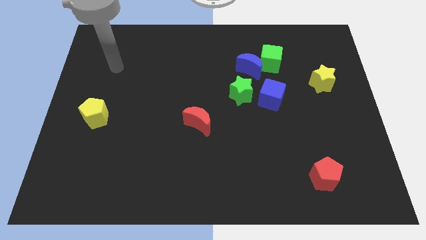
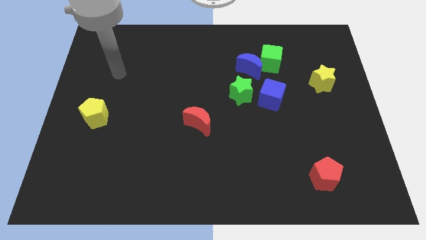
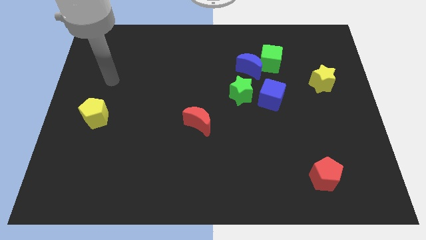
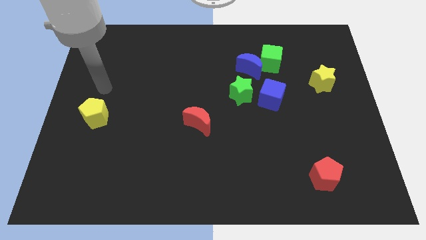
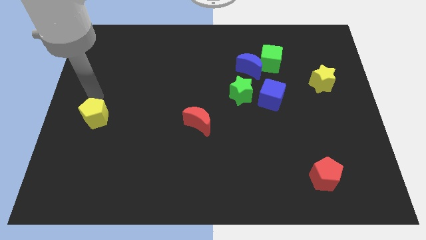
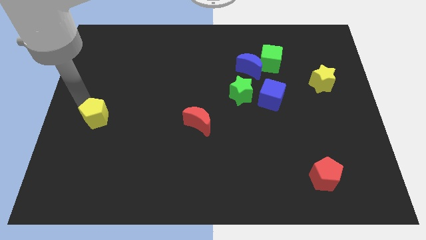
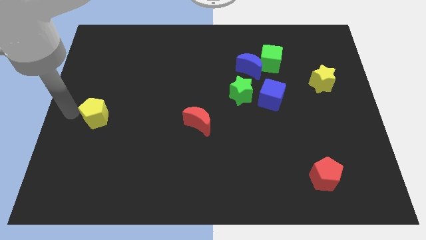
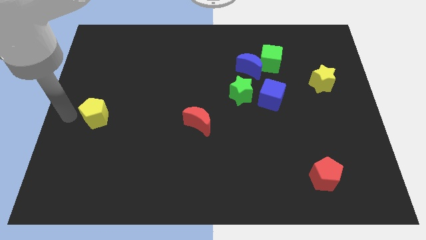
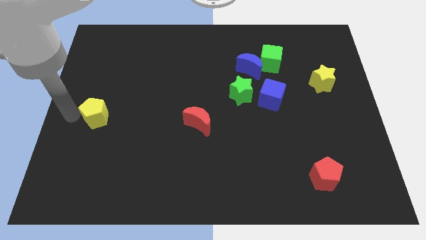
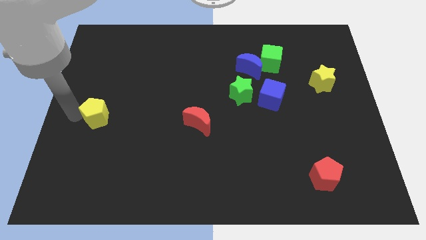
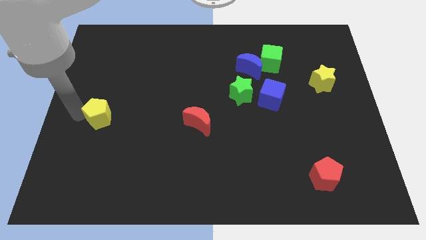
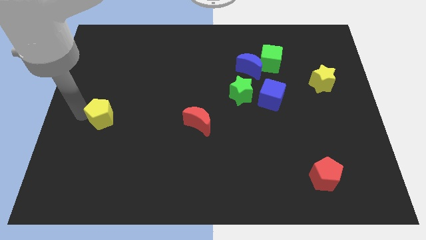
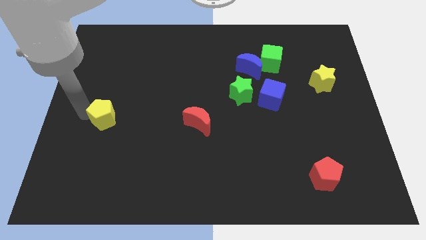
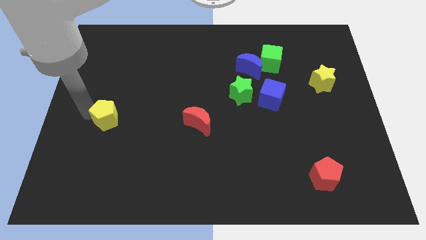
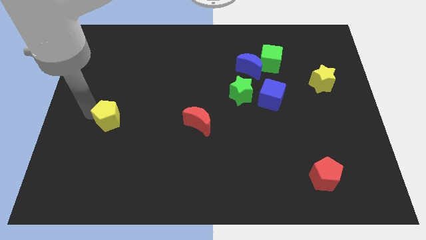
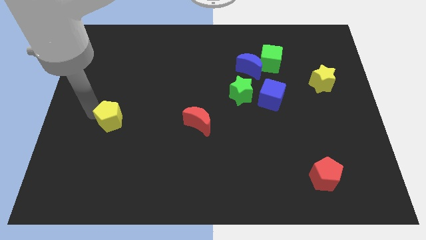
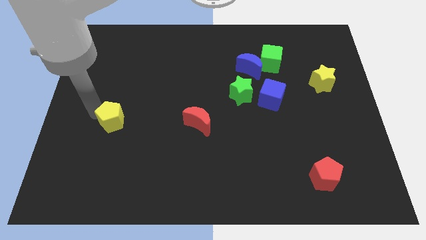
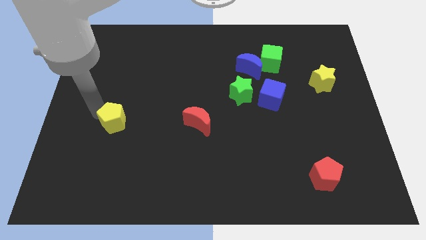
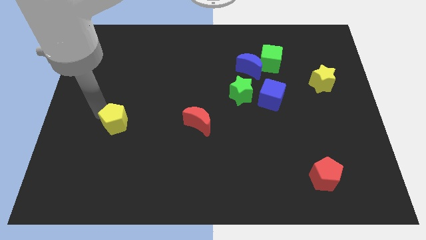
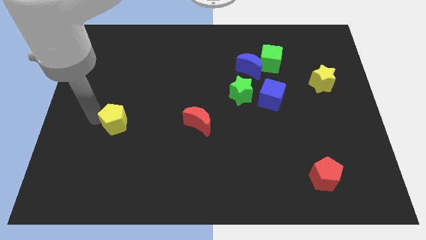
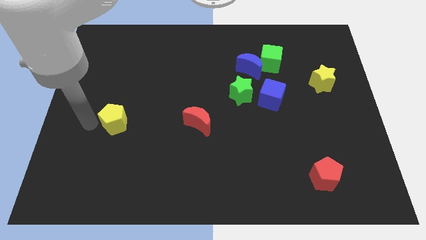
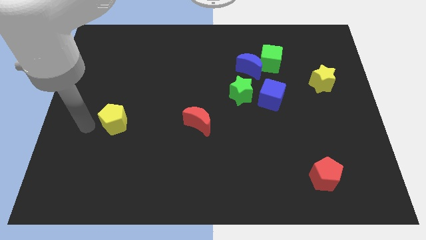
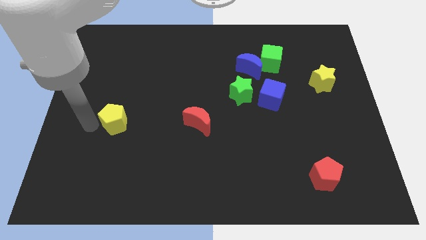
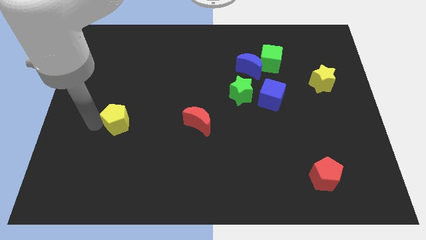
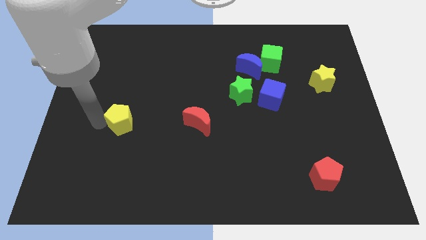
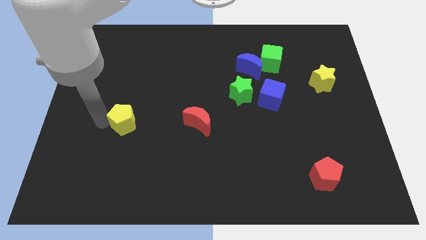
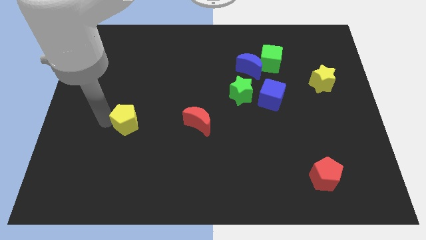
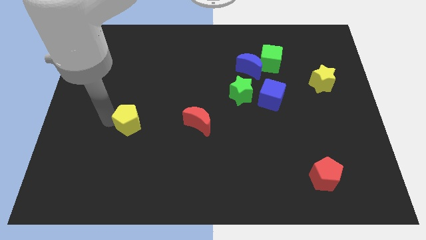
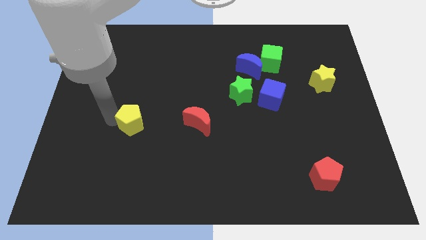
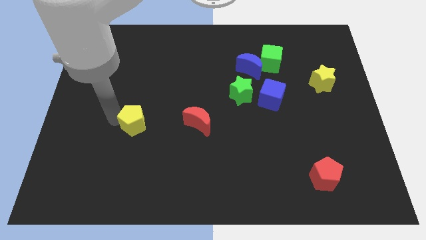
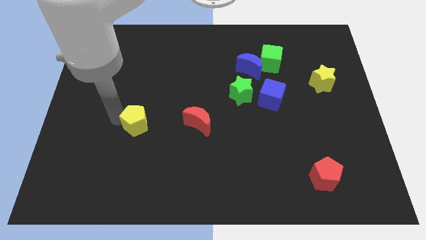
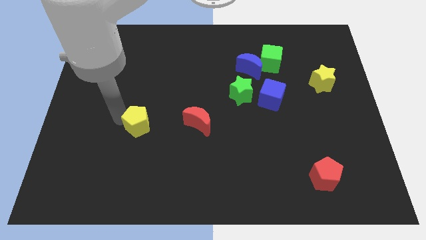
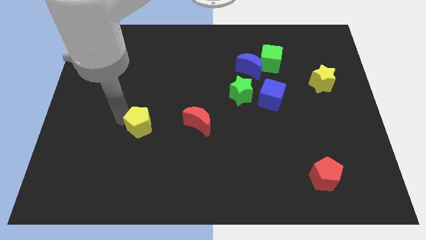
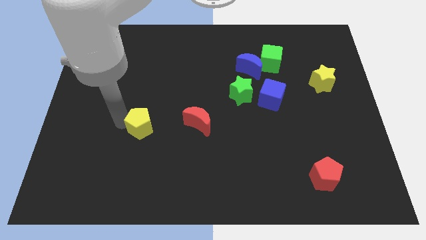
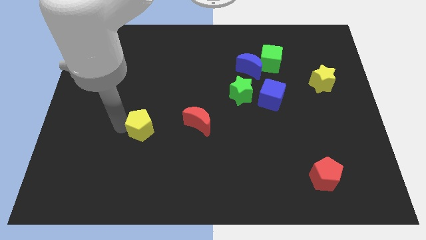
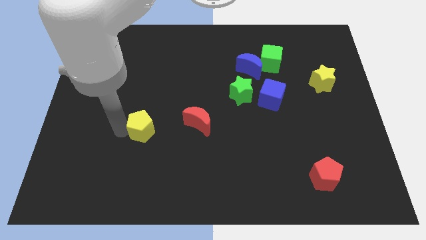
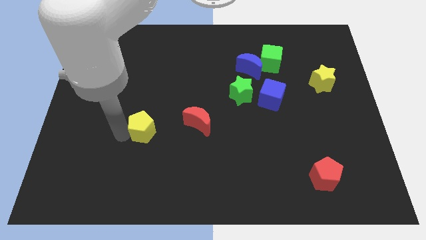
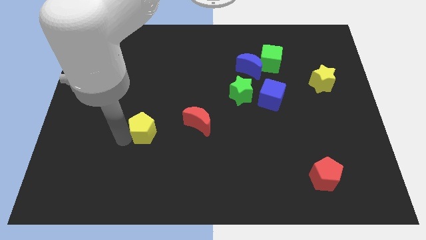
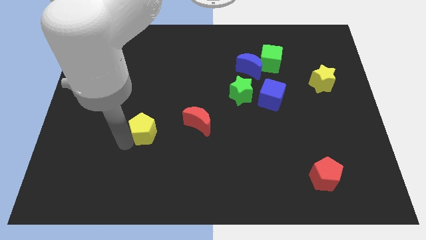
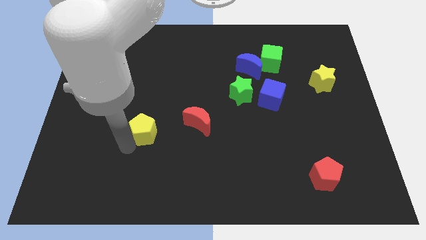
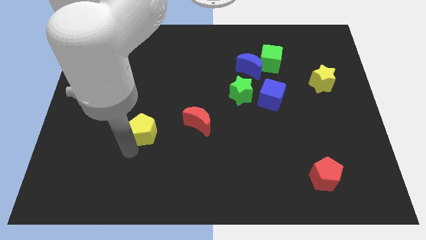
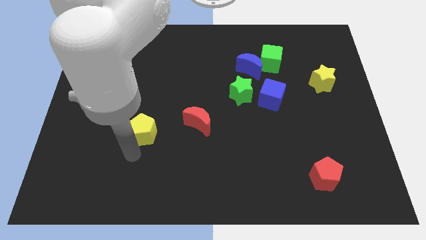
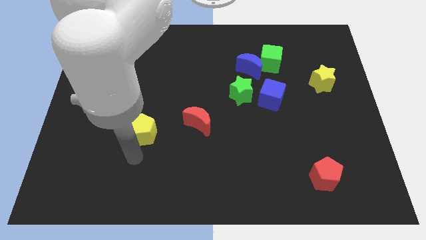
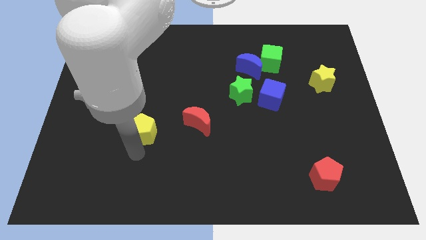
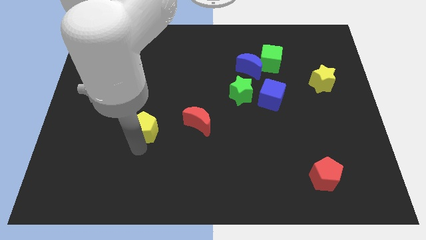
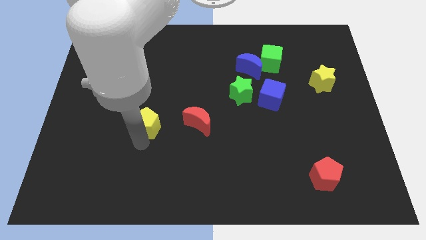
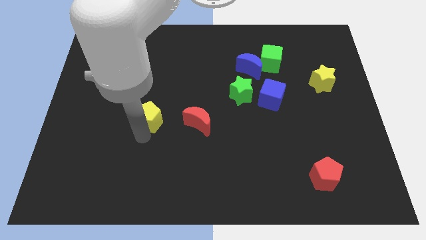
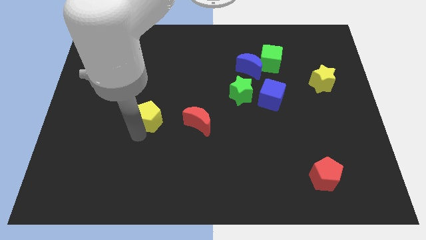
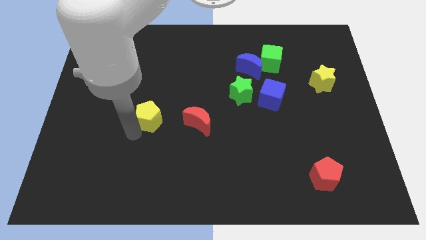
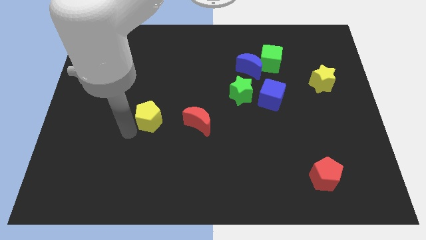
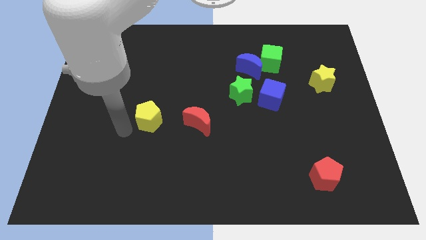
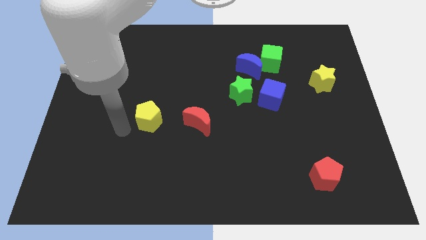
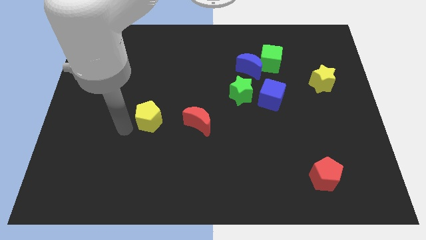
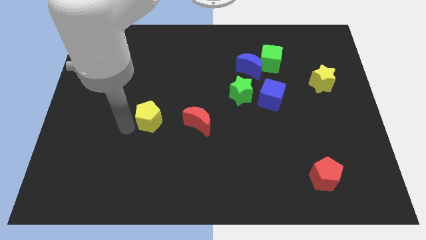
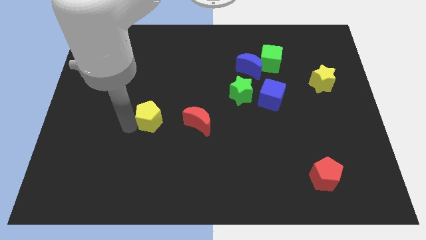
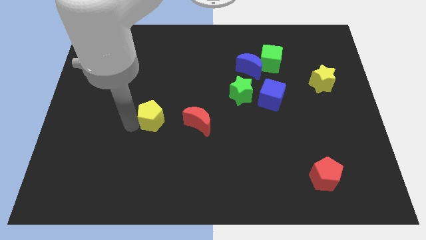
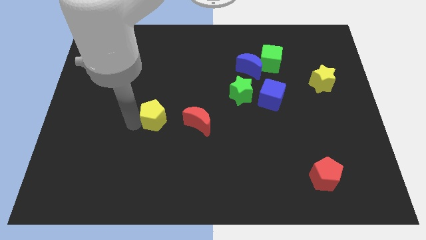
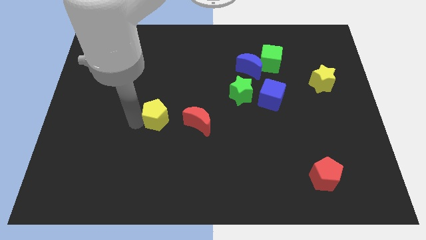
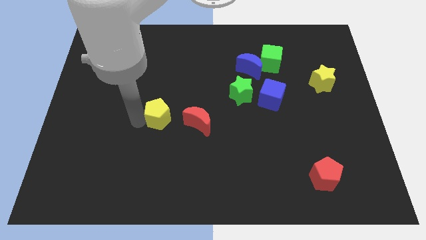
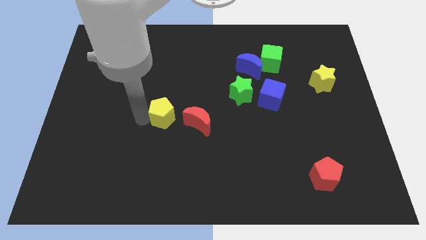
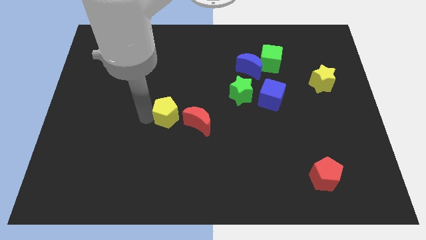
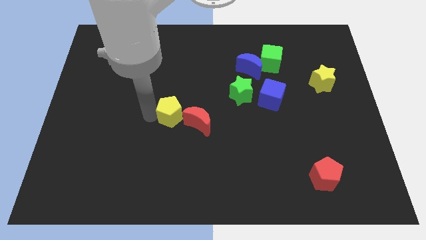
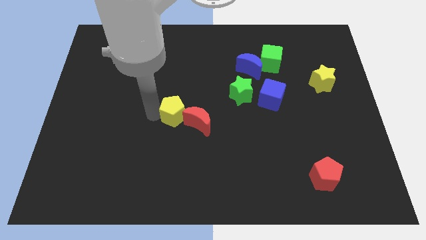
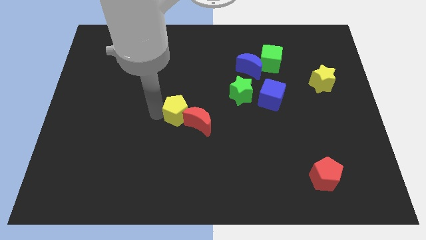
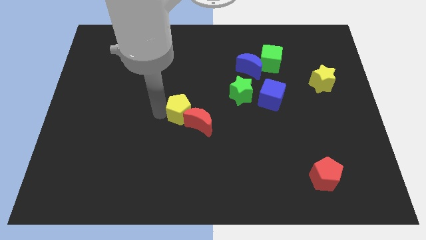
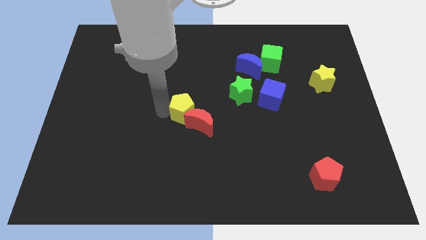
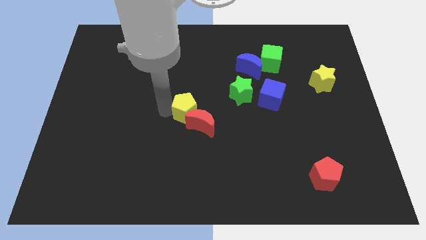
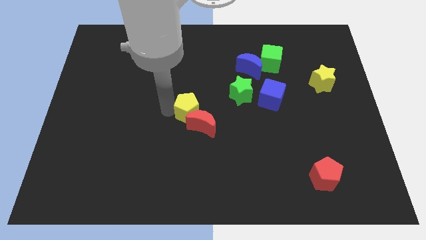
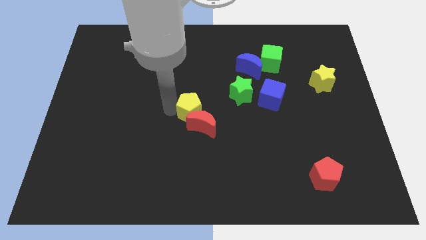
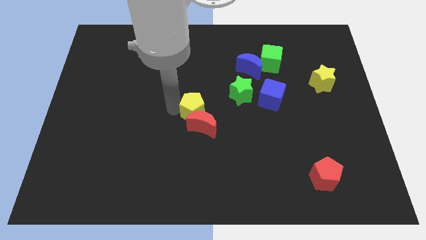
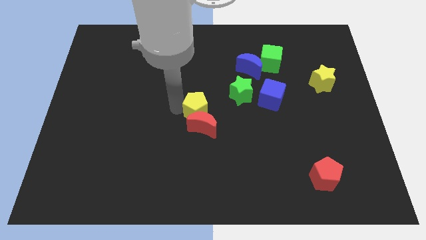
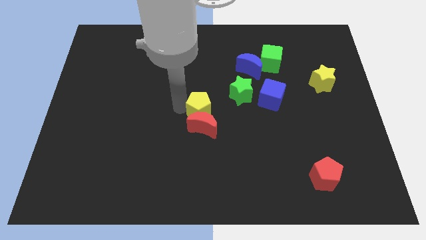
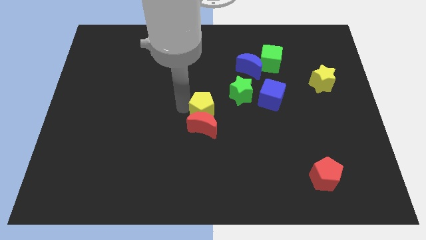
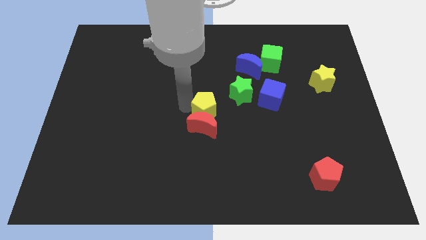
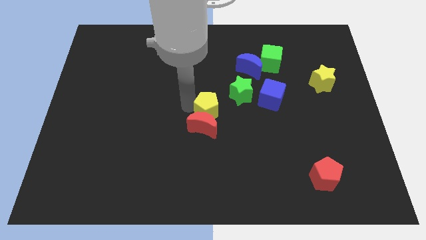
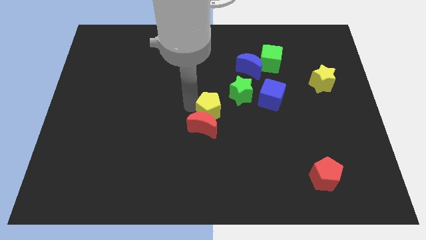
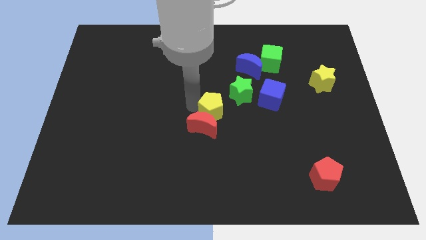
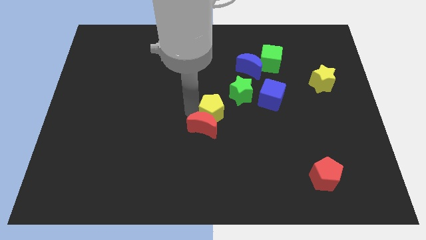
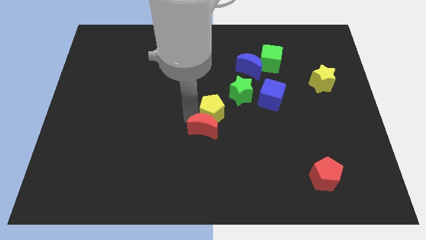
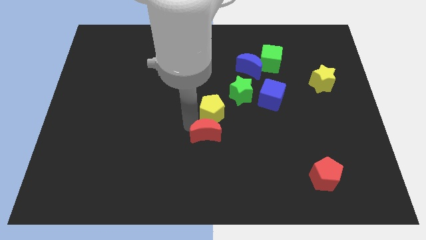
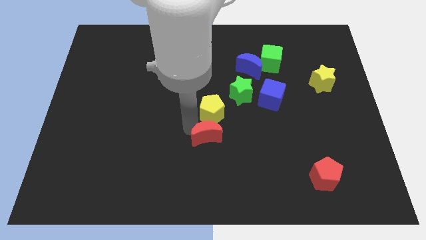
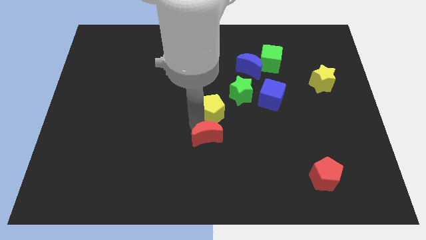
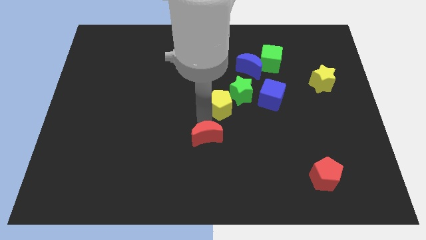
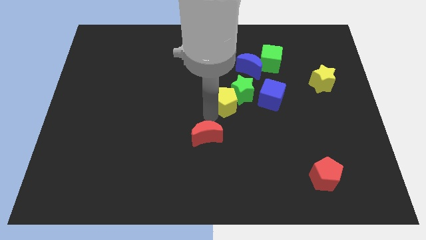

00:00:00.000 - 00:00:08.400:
put the yellow pentagon towards the green star
